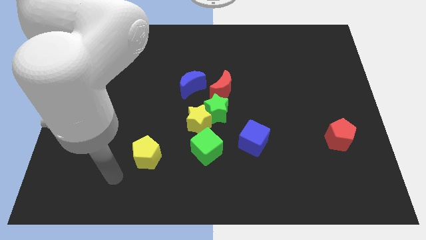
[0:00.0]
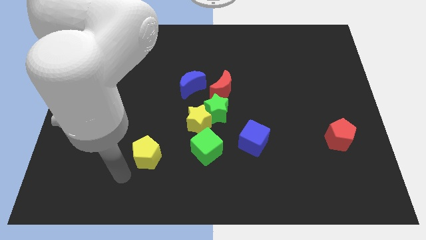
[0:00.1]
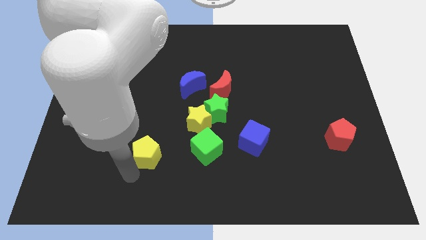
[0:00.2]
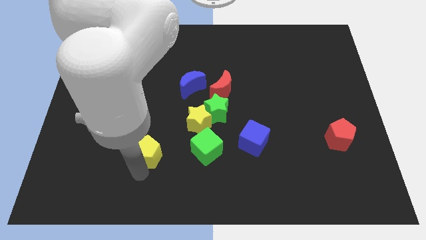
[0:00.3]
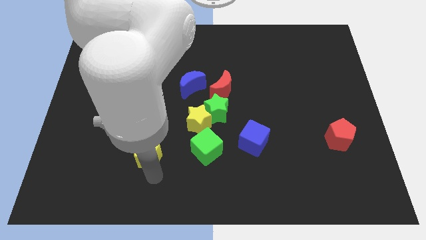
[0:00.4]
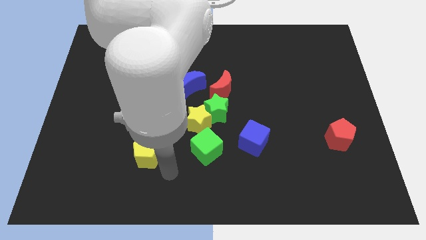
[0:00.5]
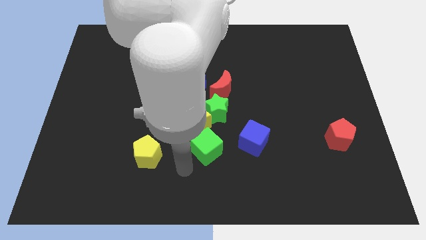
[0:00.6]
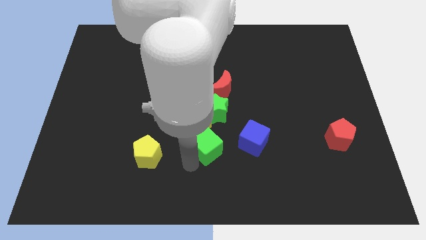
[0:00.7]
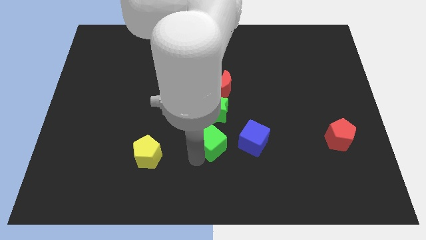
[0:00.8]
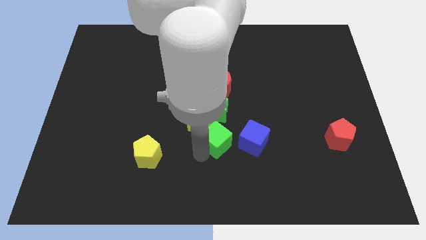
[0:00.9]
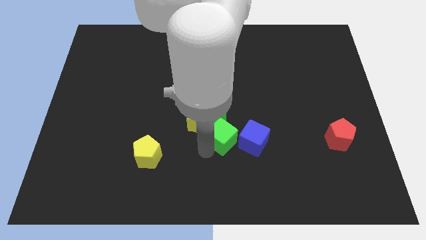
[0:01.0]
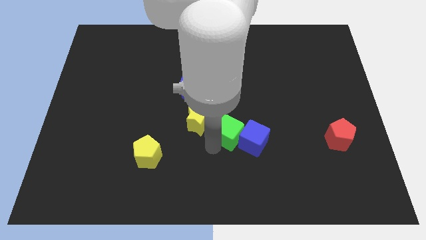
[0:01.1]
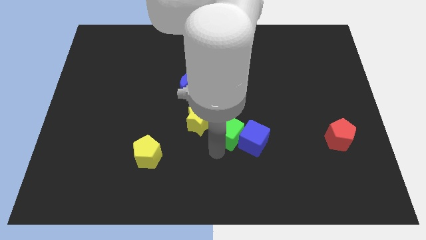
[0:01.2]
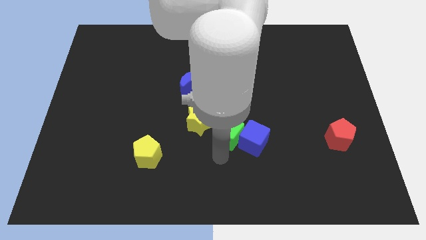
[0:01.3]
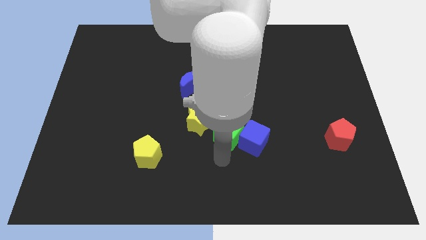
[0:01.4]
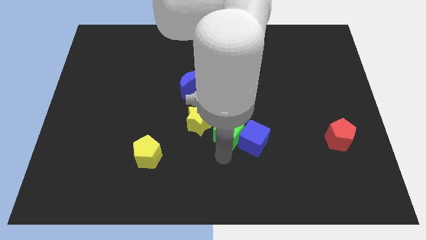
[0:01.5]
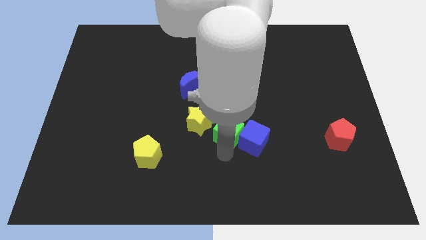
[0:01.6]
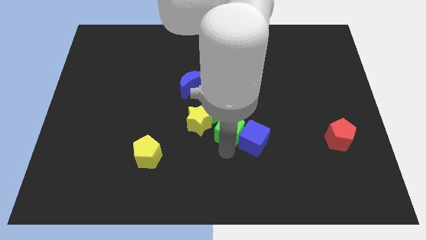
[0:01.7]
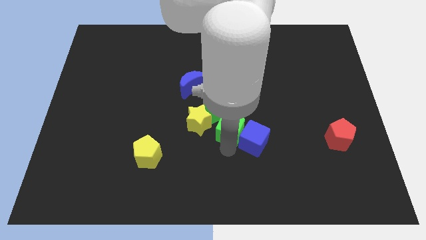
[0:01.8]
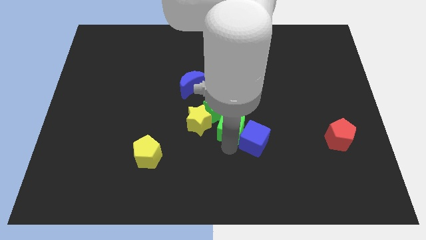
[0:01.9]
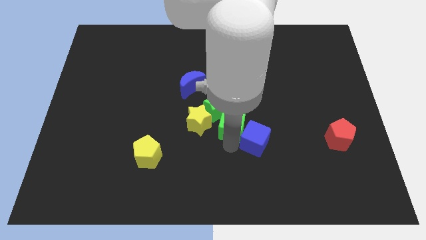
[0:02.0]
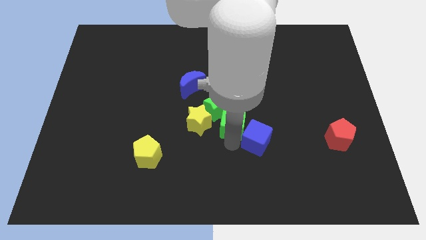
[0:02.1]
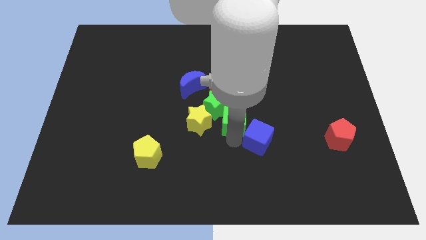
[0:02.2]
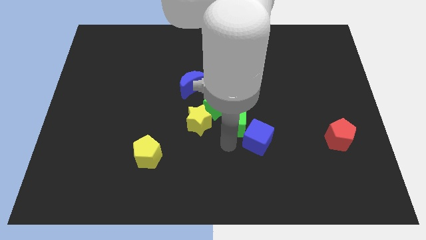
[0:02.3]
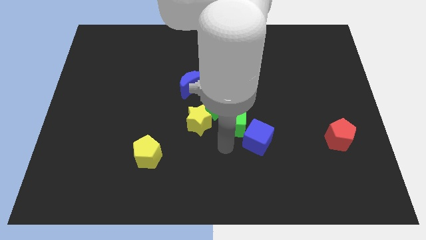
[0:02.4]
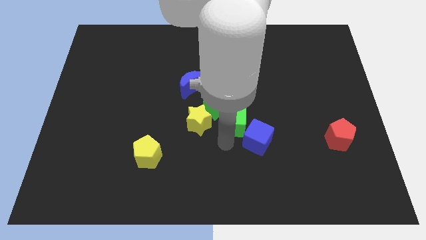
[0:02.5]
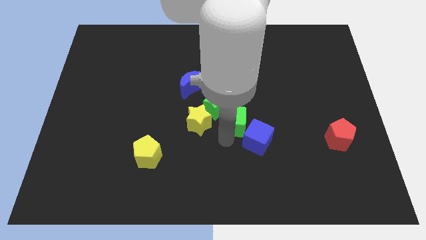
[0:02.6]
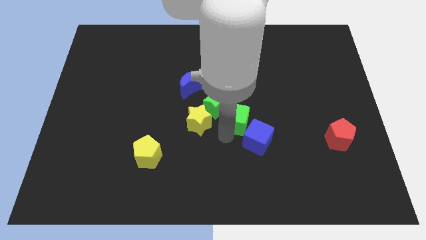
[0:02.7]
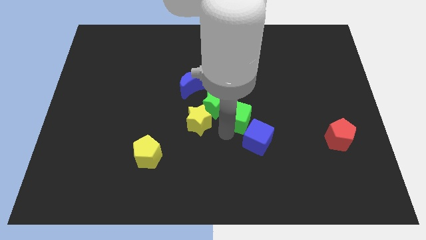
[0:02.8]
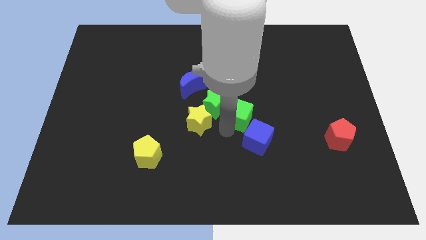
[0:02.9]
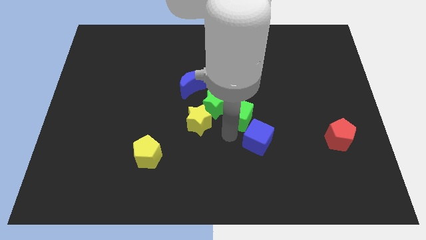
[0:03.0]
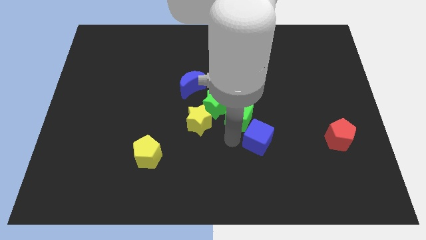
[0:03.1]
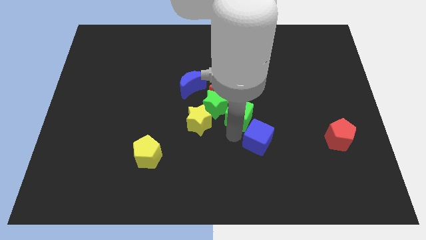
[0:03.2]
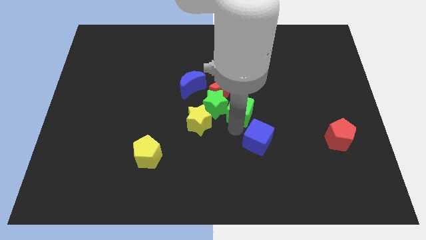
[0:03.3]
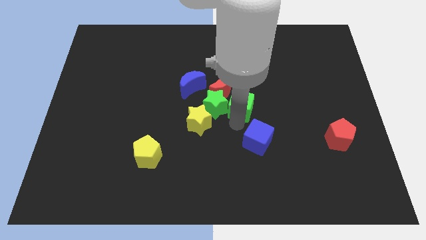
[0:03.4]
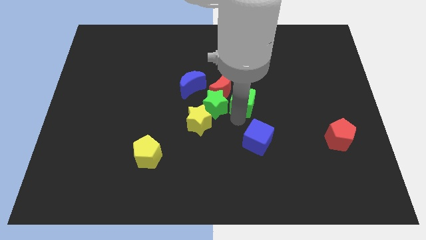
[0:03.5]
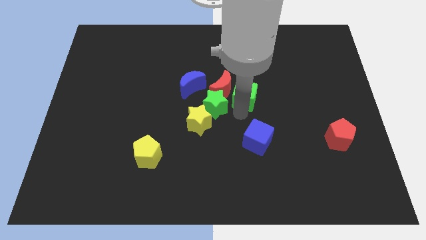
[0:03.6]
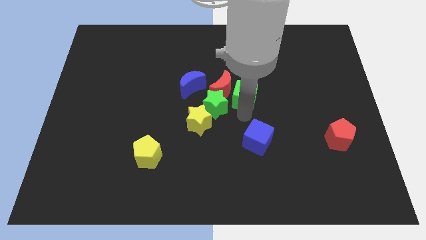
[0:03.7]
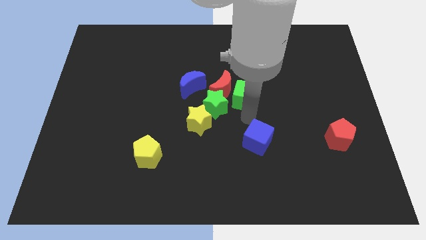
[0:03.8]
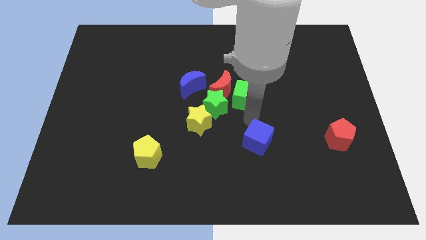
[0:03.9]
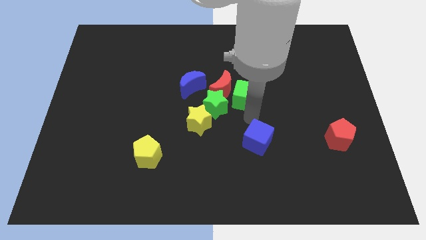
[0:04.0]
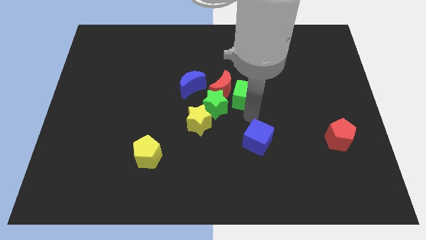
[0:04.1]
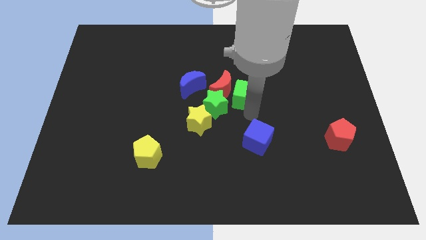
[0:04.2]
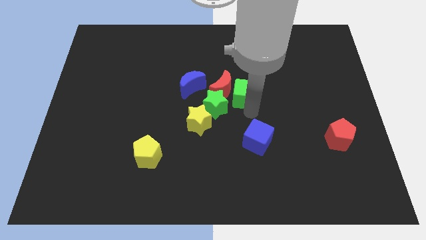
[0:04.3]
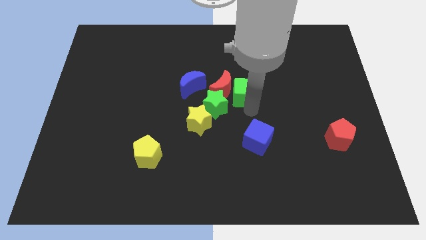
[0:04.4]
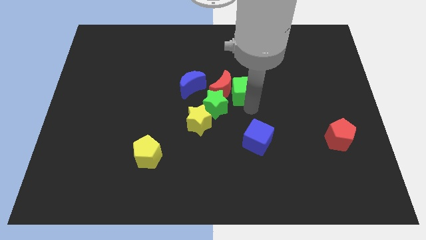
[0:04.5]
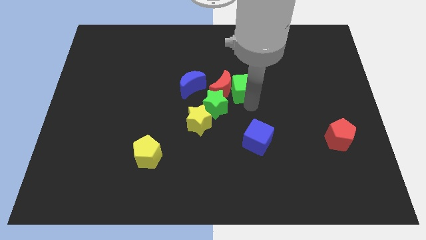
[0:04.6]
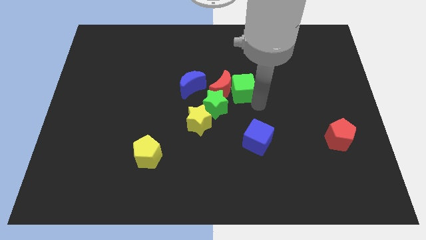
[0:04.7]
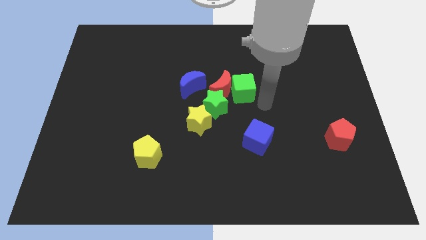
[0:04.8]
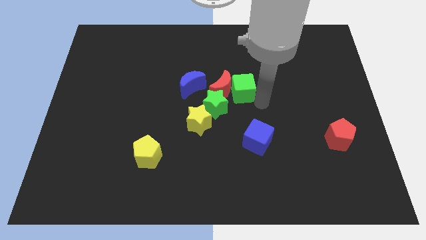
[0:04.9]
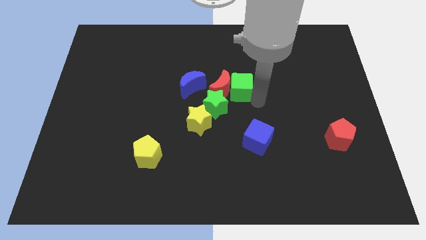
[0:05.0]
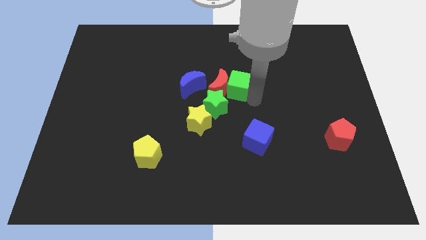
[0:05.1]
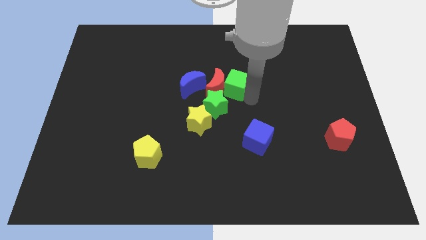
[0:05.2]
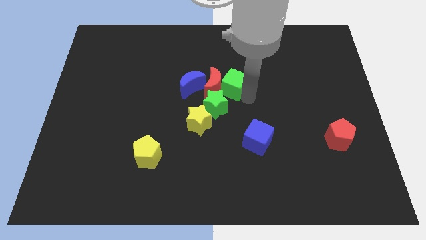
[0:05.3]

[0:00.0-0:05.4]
push the green cube above the green star
